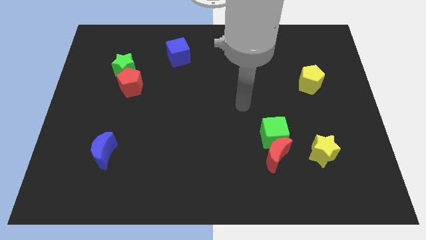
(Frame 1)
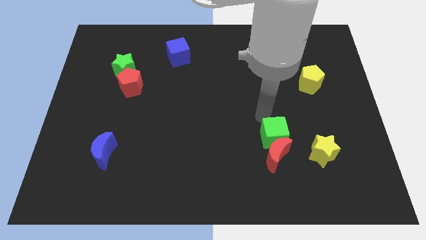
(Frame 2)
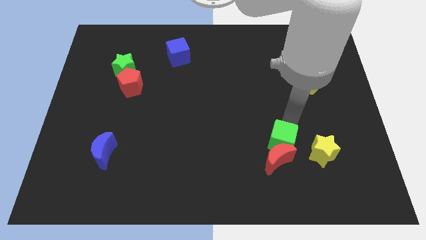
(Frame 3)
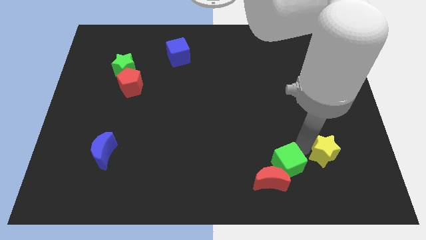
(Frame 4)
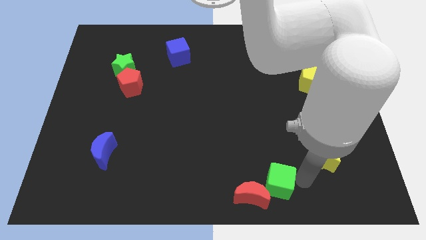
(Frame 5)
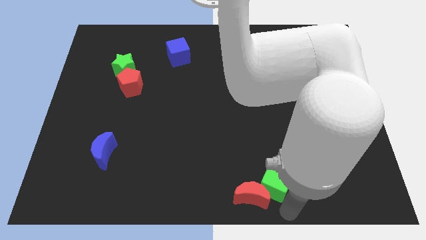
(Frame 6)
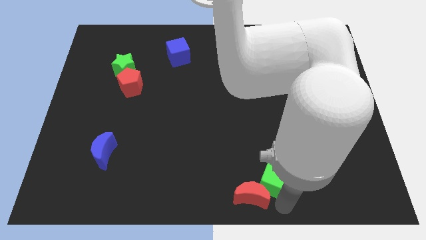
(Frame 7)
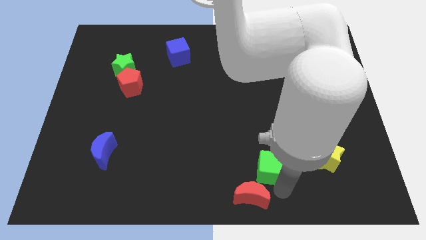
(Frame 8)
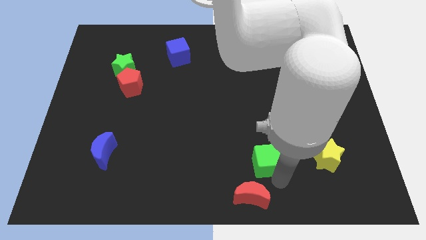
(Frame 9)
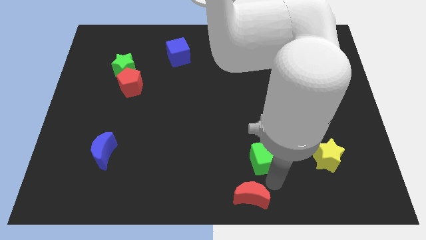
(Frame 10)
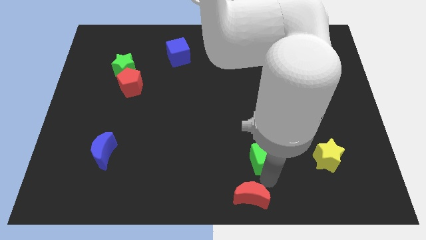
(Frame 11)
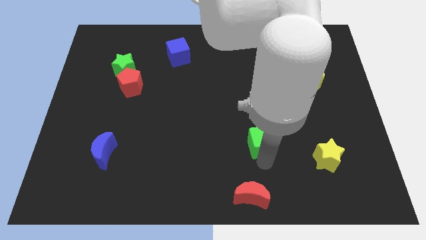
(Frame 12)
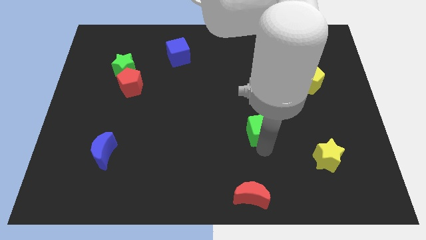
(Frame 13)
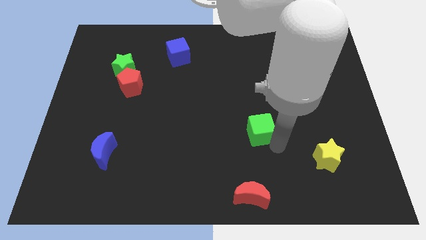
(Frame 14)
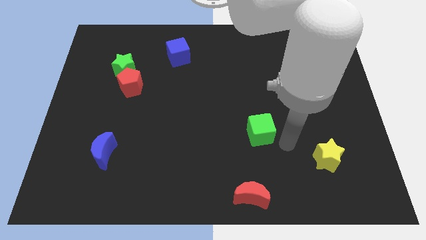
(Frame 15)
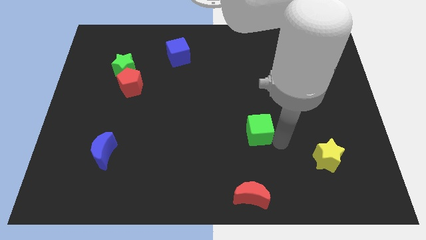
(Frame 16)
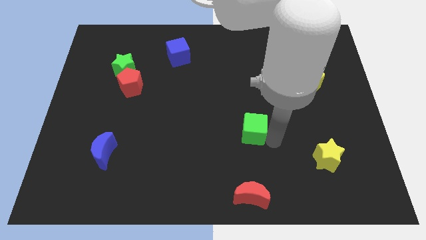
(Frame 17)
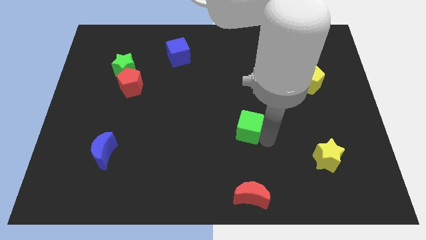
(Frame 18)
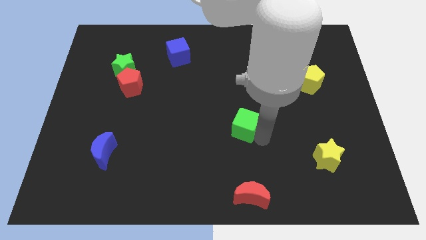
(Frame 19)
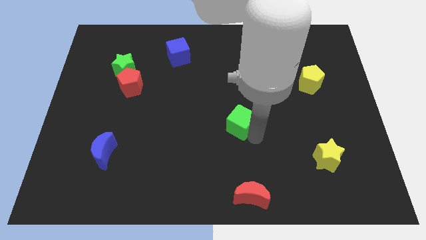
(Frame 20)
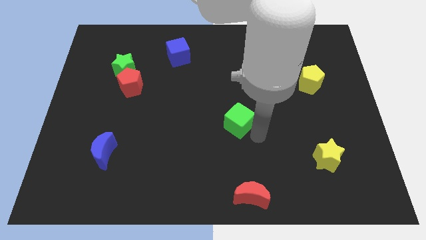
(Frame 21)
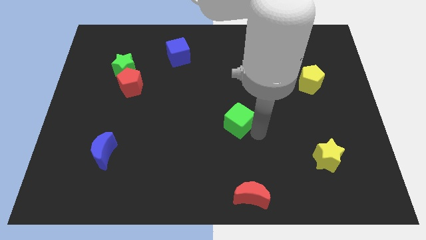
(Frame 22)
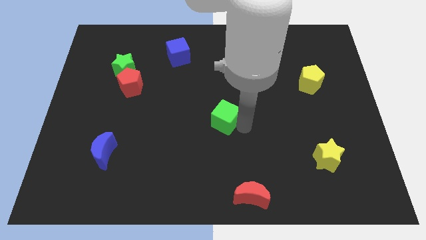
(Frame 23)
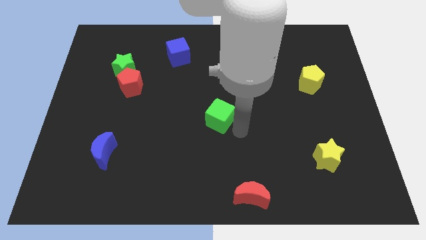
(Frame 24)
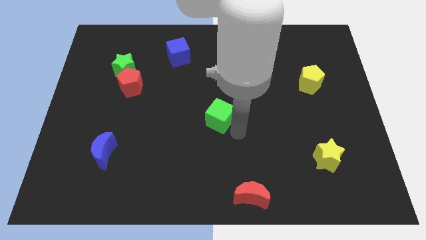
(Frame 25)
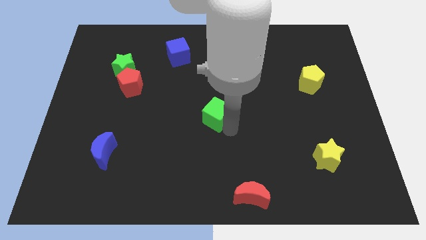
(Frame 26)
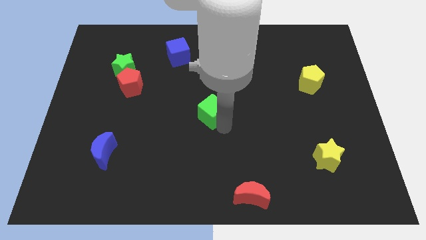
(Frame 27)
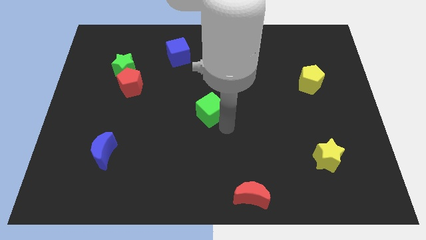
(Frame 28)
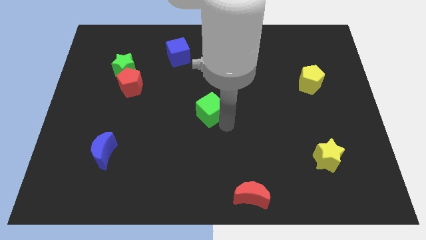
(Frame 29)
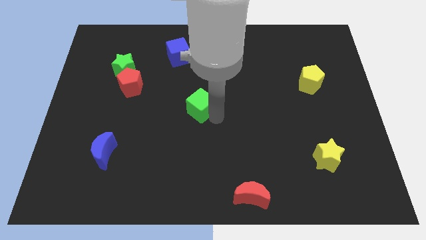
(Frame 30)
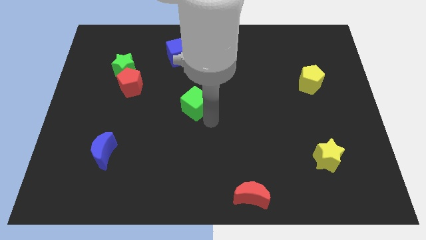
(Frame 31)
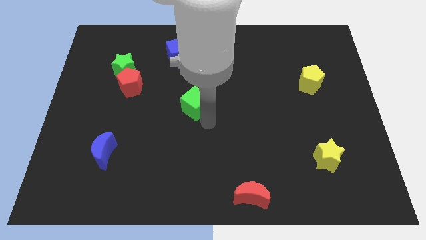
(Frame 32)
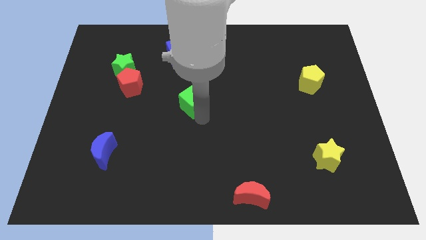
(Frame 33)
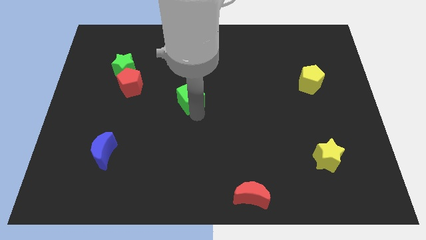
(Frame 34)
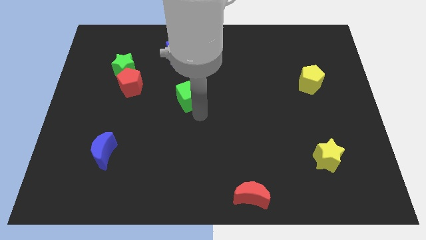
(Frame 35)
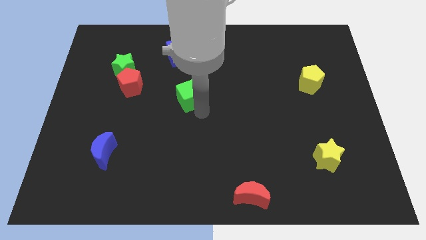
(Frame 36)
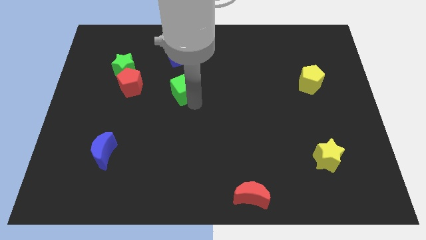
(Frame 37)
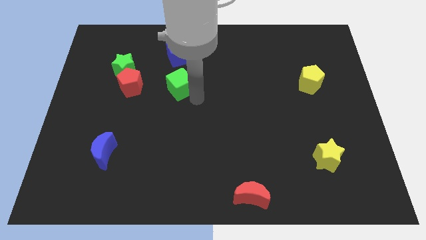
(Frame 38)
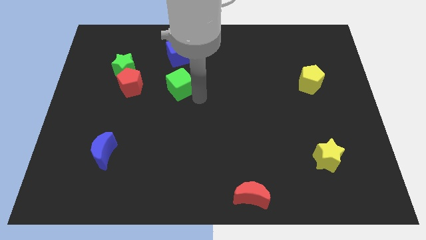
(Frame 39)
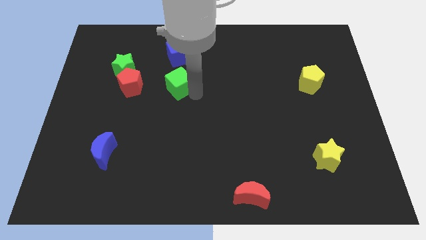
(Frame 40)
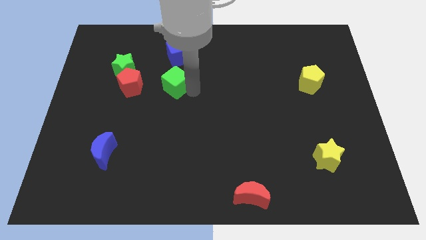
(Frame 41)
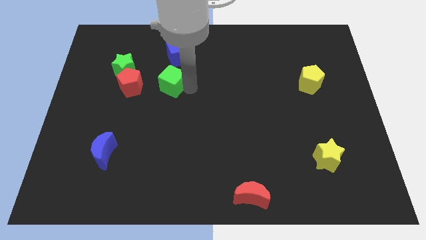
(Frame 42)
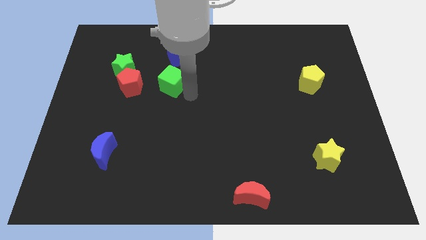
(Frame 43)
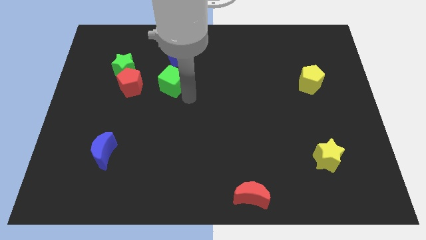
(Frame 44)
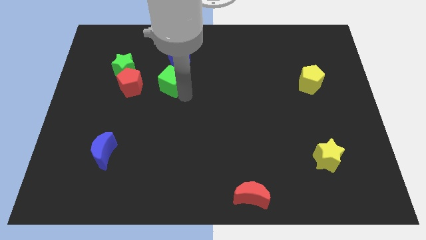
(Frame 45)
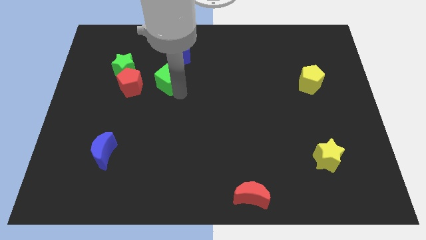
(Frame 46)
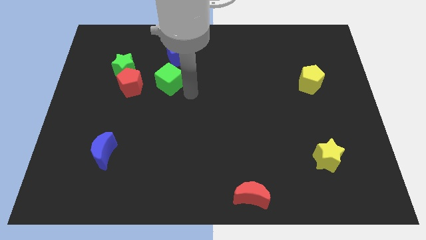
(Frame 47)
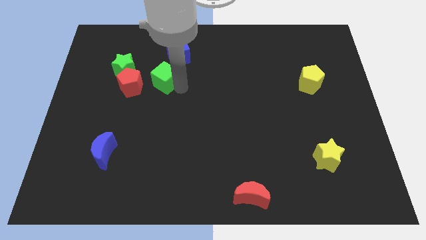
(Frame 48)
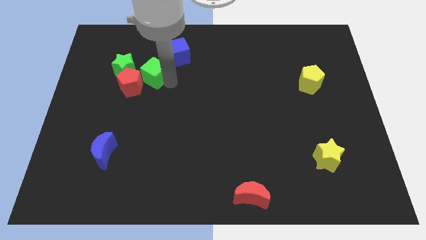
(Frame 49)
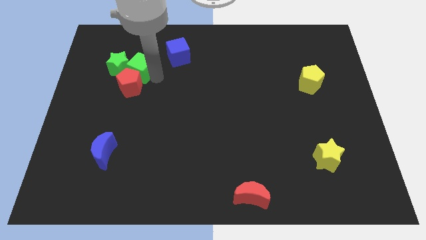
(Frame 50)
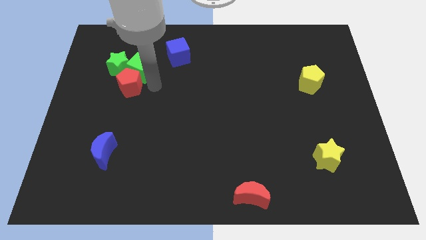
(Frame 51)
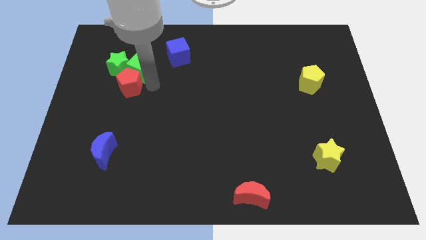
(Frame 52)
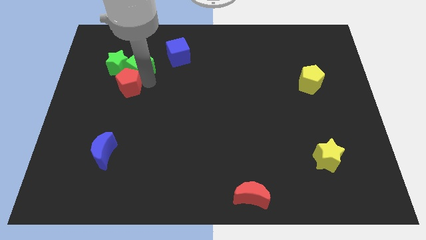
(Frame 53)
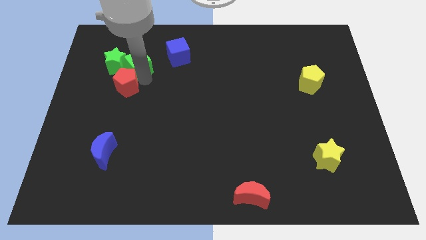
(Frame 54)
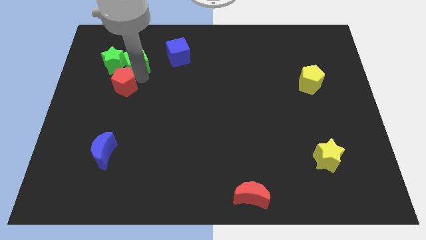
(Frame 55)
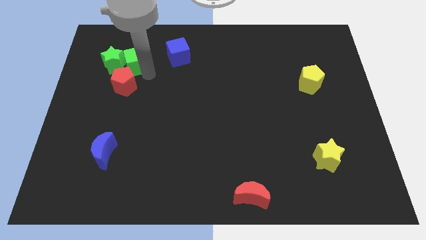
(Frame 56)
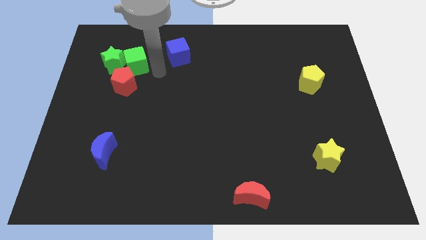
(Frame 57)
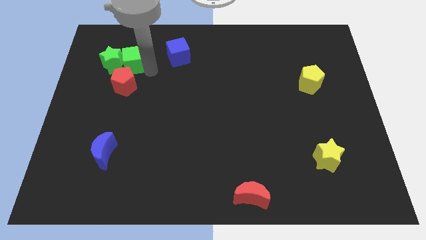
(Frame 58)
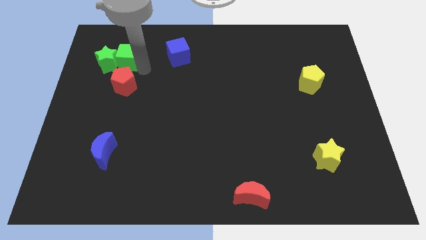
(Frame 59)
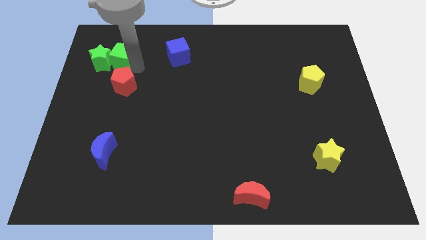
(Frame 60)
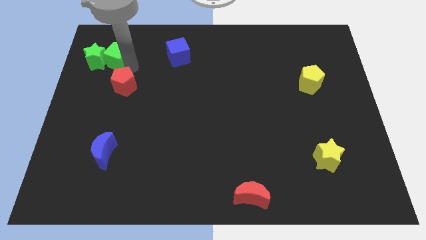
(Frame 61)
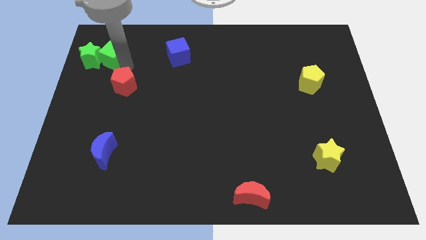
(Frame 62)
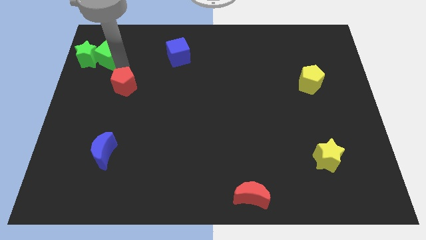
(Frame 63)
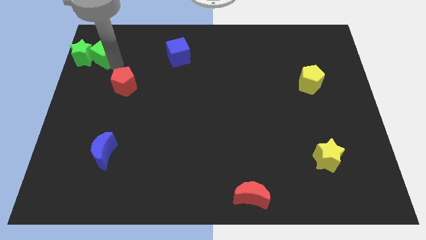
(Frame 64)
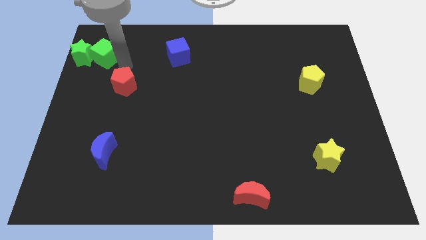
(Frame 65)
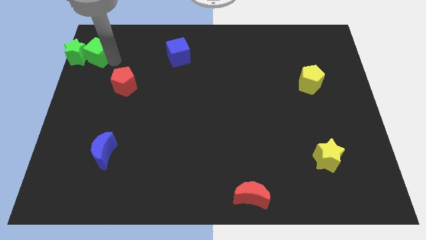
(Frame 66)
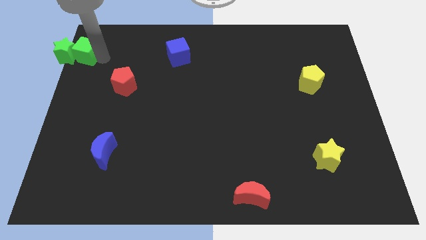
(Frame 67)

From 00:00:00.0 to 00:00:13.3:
slide the green cube to the top left corner
